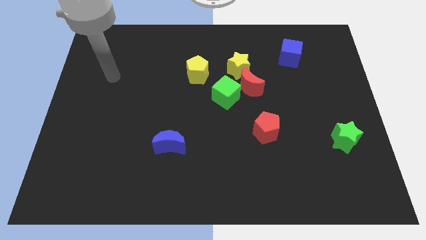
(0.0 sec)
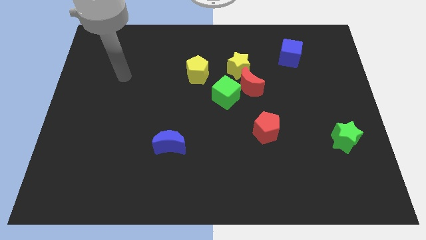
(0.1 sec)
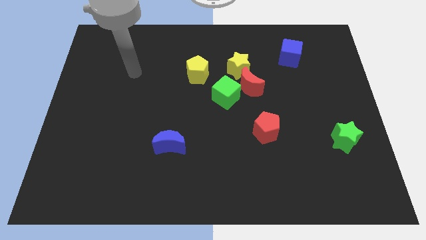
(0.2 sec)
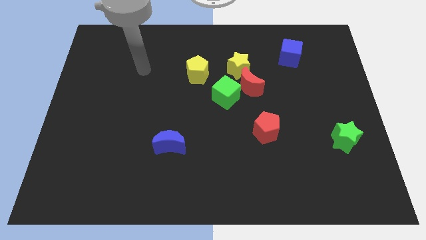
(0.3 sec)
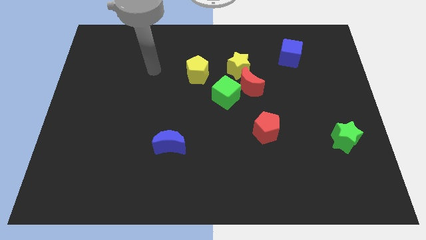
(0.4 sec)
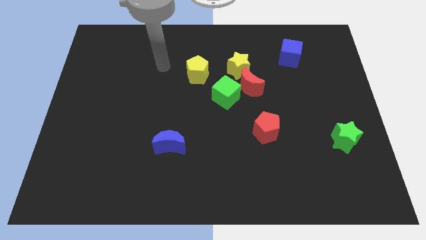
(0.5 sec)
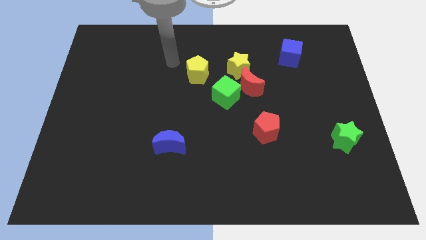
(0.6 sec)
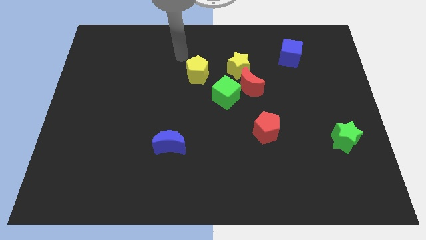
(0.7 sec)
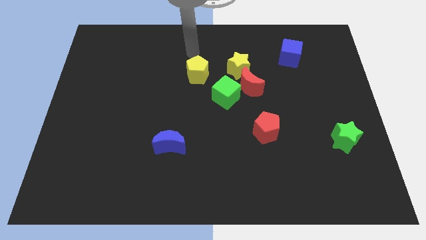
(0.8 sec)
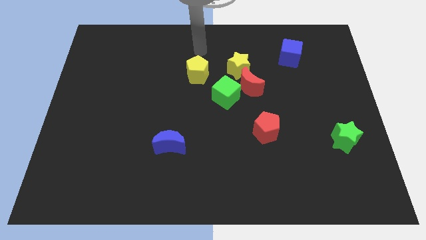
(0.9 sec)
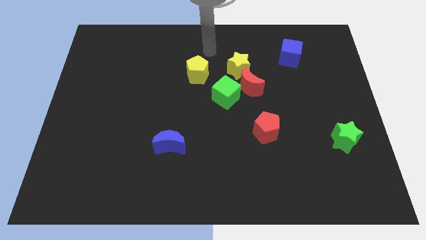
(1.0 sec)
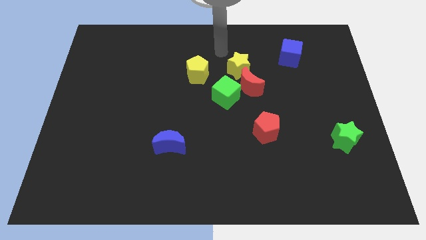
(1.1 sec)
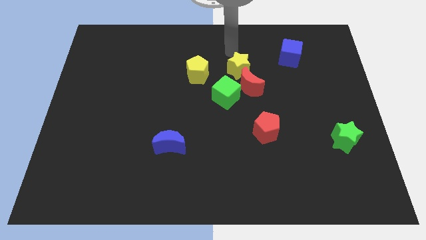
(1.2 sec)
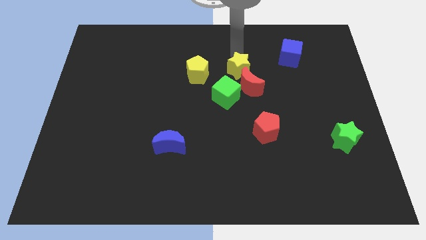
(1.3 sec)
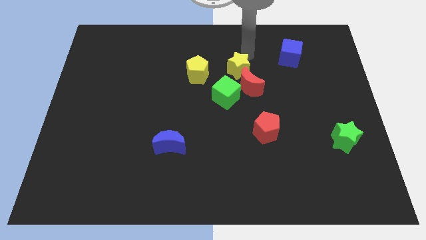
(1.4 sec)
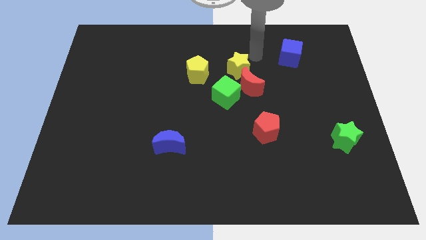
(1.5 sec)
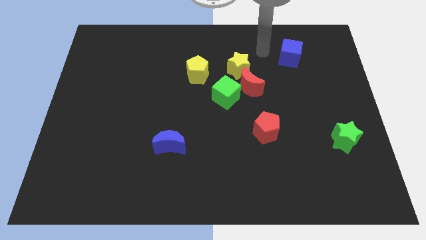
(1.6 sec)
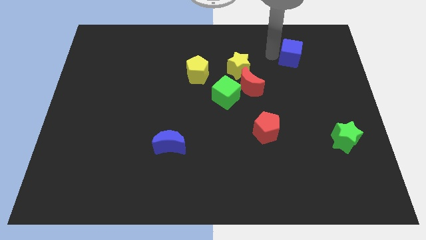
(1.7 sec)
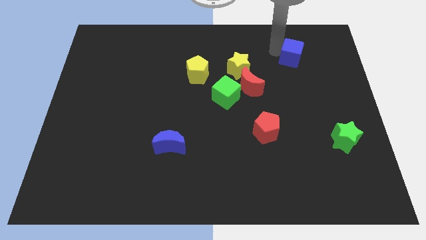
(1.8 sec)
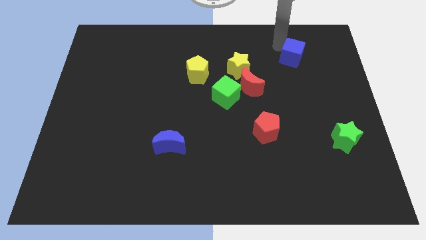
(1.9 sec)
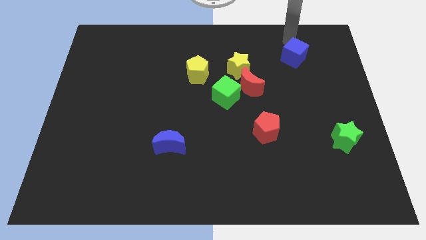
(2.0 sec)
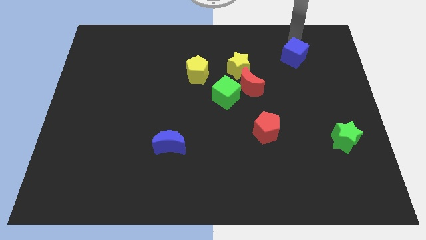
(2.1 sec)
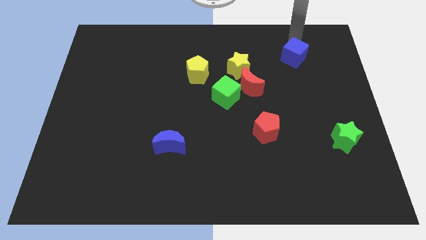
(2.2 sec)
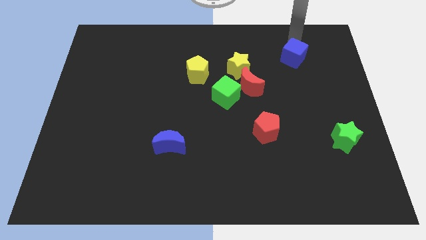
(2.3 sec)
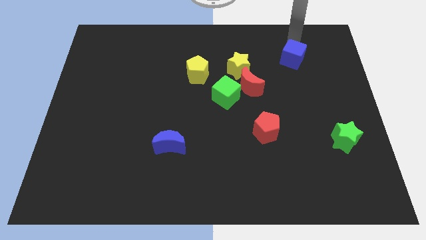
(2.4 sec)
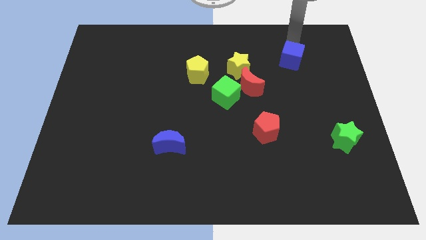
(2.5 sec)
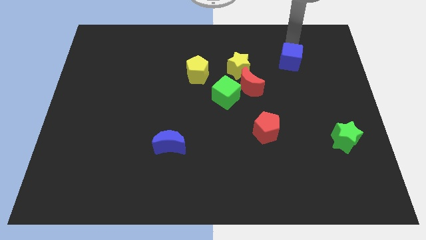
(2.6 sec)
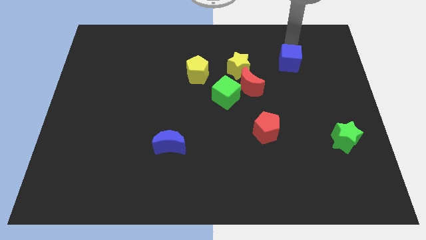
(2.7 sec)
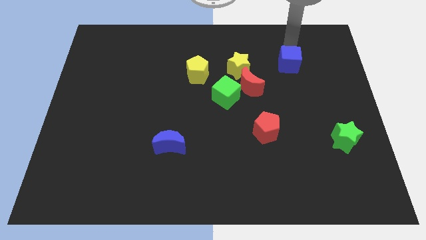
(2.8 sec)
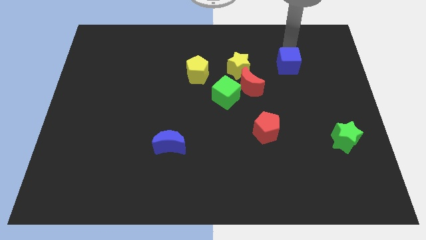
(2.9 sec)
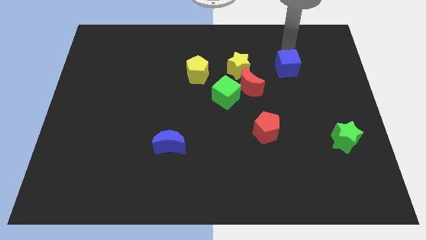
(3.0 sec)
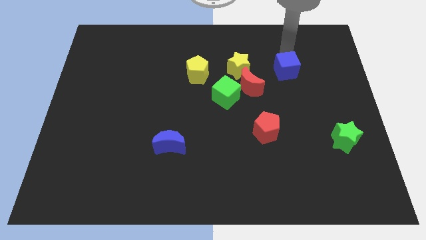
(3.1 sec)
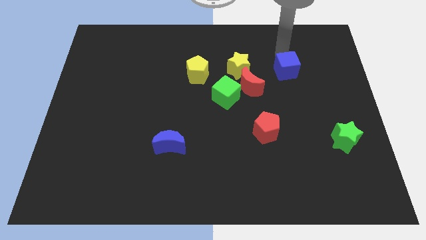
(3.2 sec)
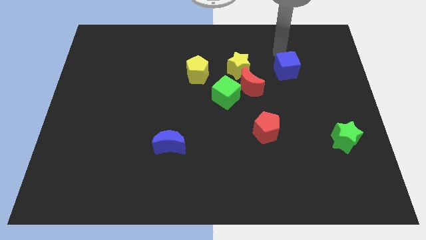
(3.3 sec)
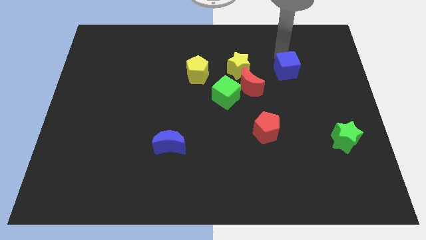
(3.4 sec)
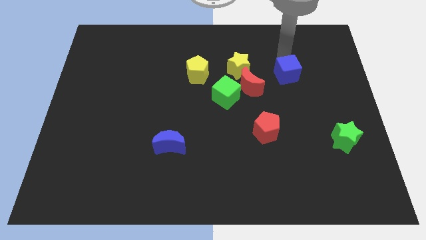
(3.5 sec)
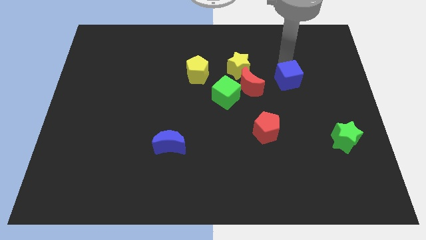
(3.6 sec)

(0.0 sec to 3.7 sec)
slightly push the blue cube downwards

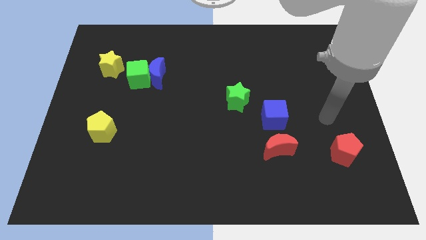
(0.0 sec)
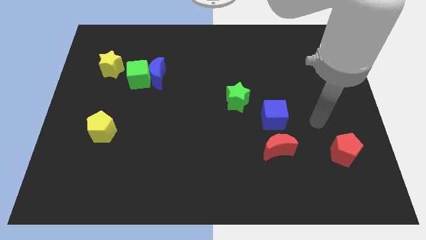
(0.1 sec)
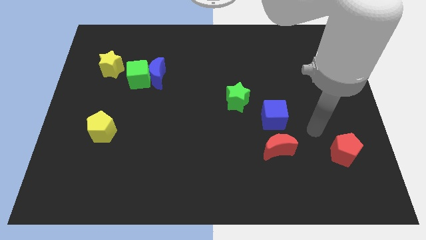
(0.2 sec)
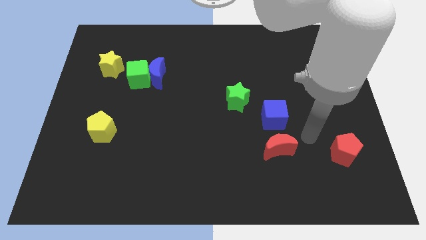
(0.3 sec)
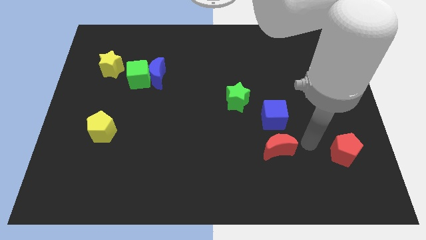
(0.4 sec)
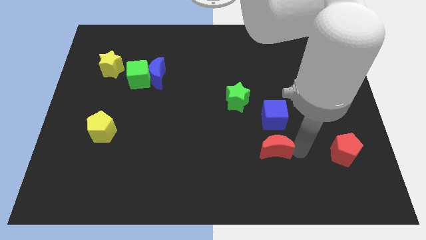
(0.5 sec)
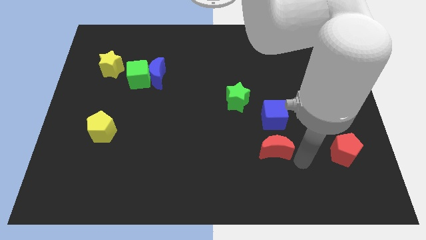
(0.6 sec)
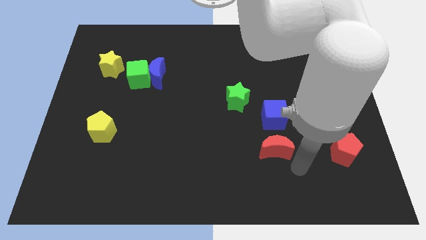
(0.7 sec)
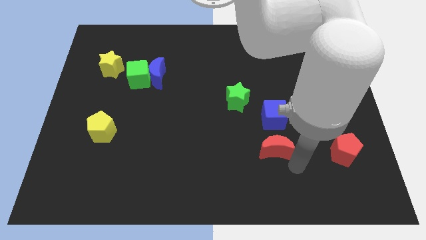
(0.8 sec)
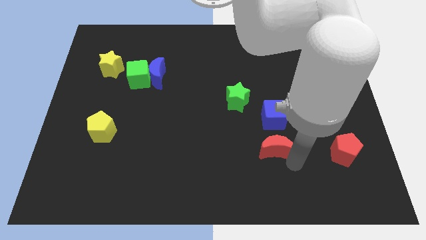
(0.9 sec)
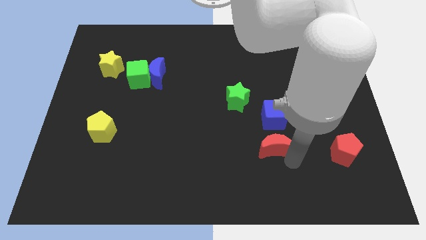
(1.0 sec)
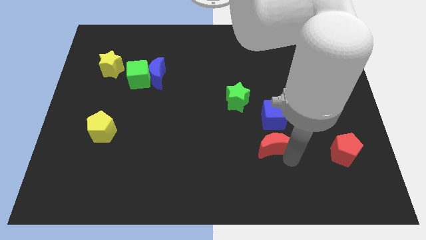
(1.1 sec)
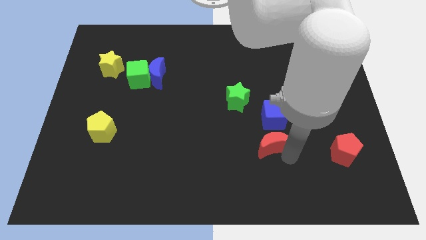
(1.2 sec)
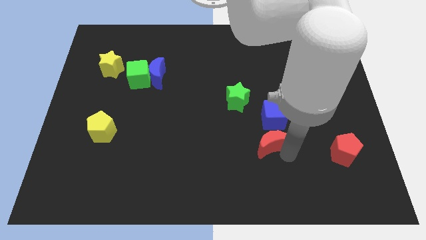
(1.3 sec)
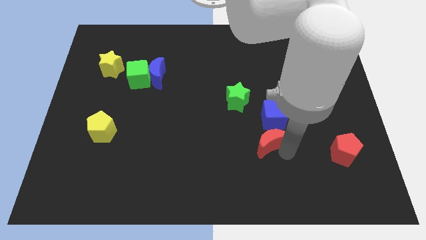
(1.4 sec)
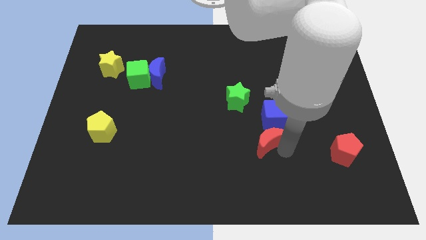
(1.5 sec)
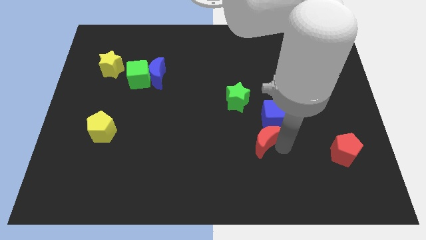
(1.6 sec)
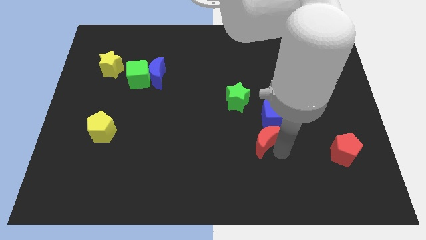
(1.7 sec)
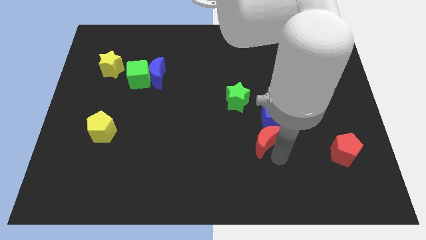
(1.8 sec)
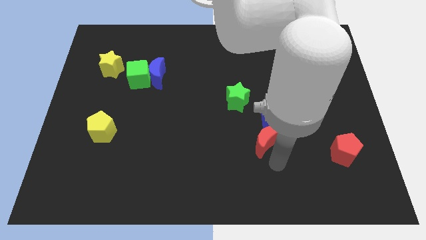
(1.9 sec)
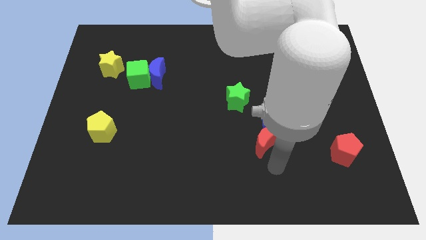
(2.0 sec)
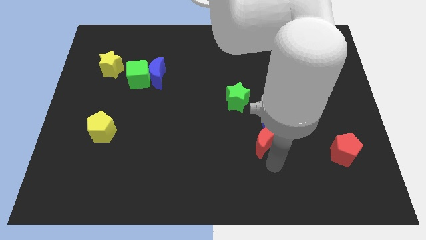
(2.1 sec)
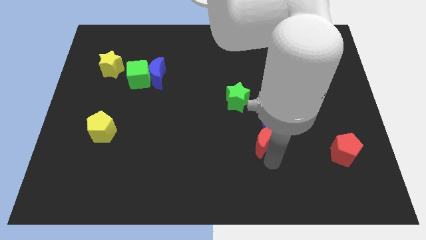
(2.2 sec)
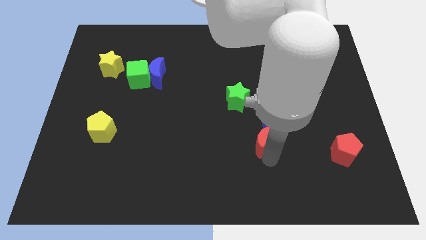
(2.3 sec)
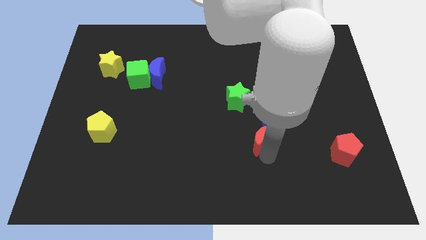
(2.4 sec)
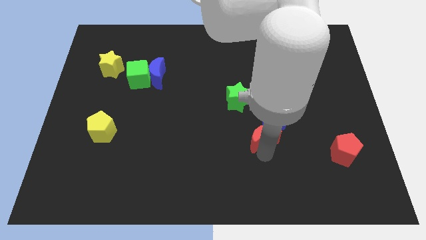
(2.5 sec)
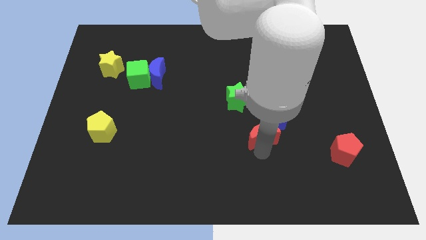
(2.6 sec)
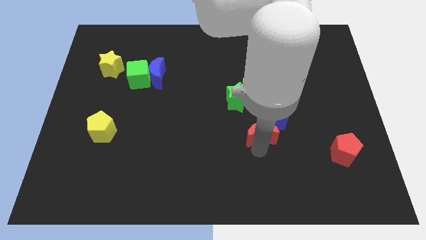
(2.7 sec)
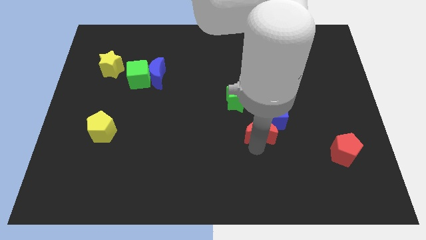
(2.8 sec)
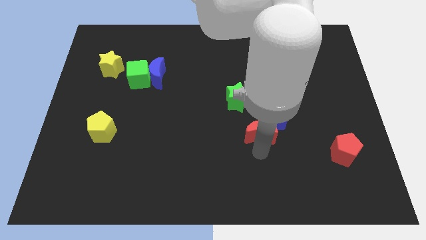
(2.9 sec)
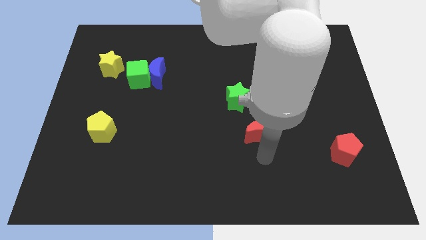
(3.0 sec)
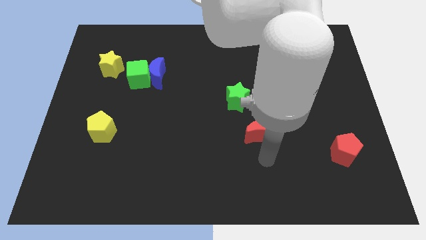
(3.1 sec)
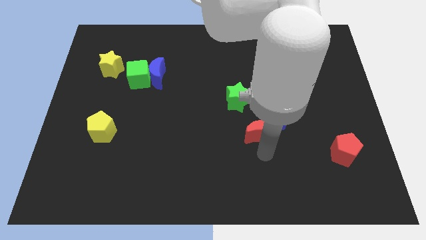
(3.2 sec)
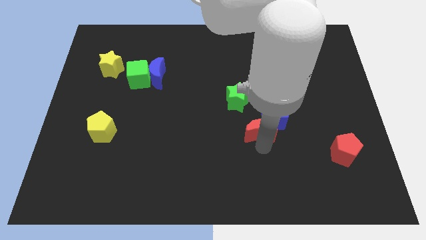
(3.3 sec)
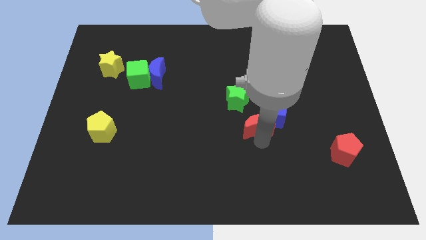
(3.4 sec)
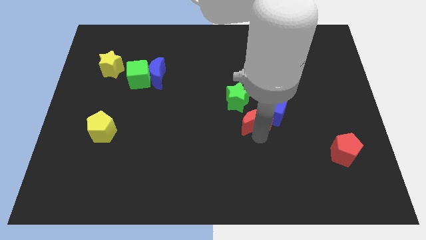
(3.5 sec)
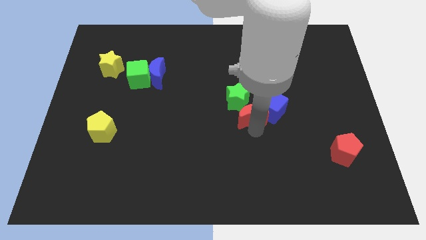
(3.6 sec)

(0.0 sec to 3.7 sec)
slightly move the red moon upwards

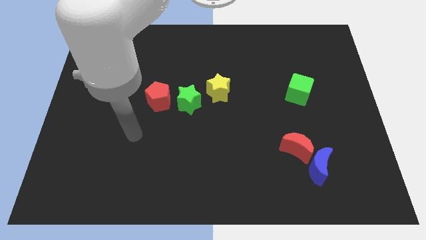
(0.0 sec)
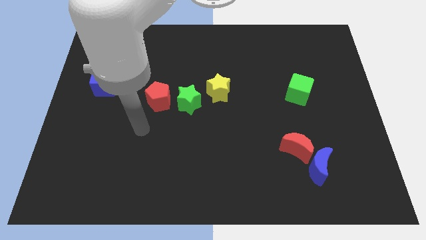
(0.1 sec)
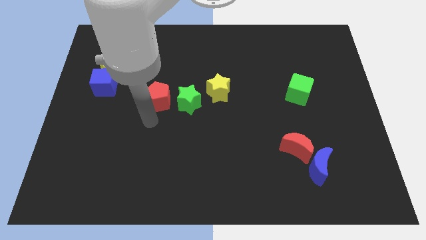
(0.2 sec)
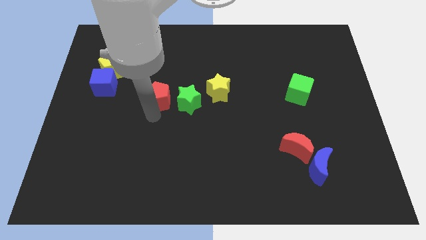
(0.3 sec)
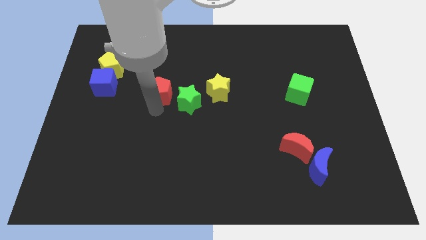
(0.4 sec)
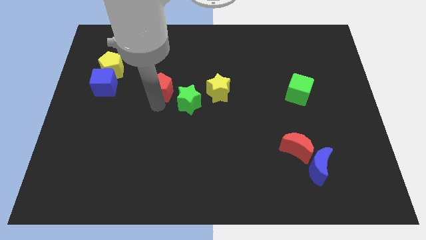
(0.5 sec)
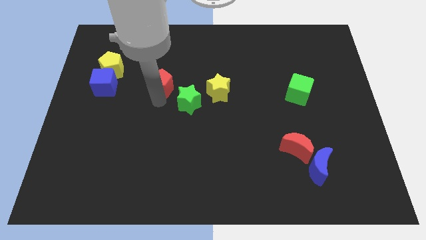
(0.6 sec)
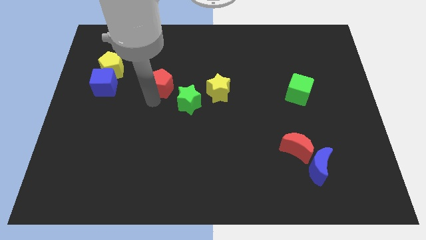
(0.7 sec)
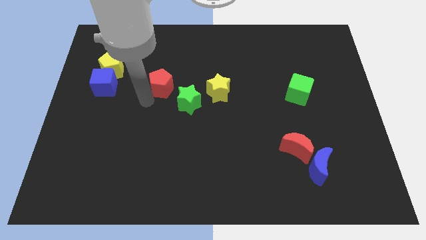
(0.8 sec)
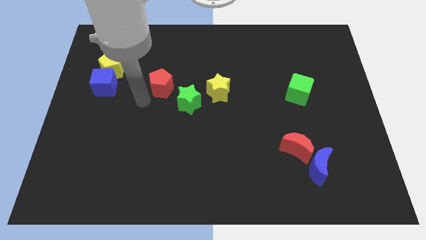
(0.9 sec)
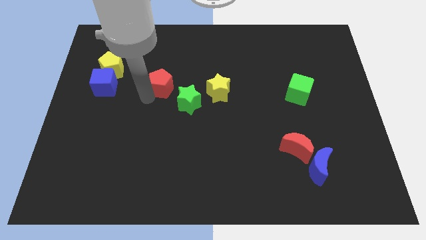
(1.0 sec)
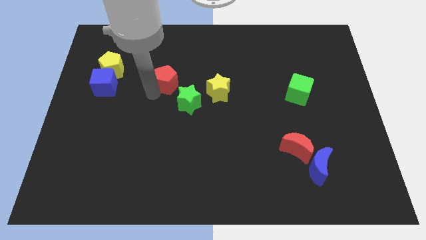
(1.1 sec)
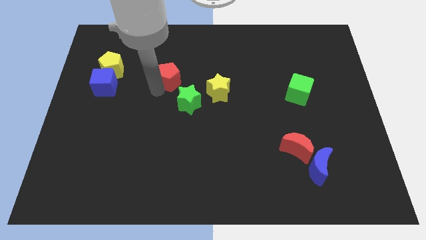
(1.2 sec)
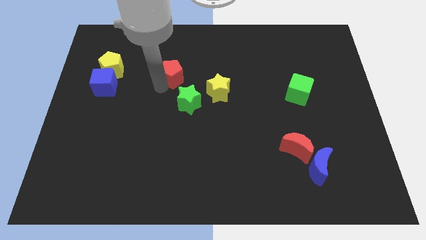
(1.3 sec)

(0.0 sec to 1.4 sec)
slightly move the red pentagon diagonally up and right

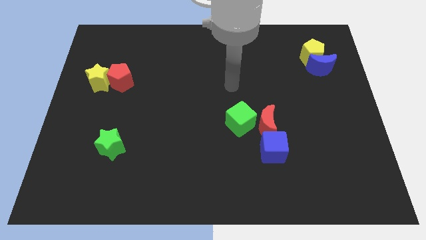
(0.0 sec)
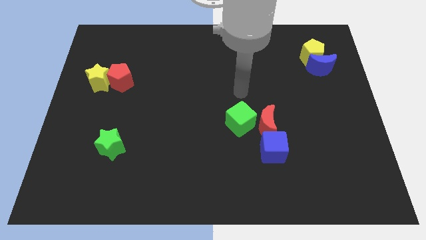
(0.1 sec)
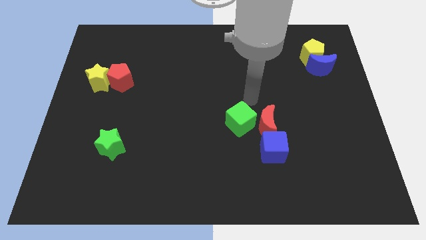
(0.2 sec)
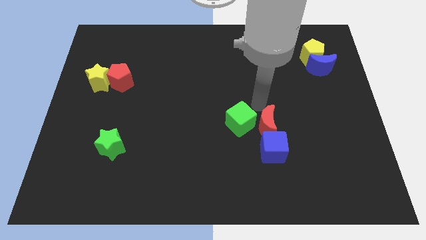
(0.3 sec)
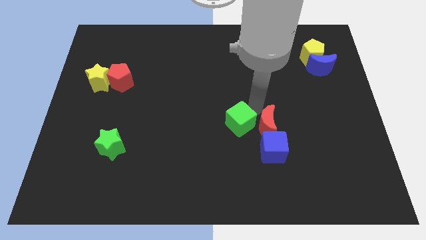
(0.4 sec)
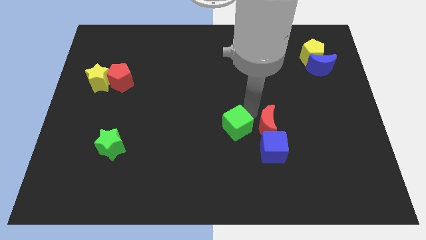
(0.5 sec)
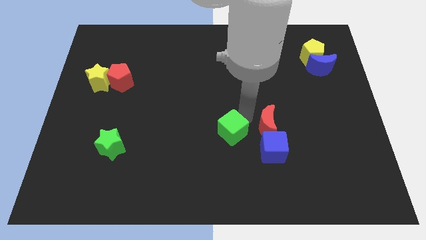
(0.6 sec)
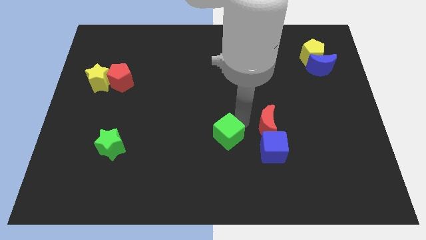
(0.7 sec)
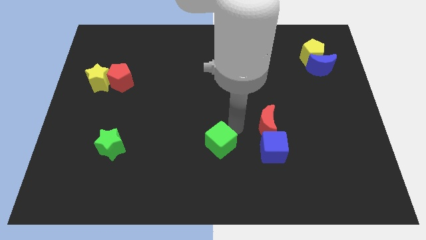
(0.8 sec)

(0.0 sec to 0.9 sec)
move the green cube down and to the left diagonally a bit
